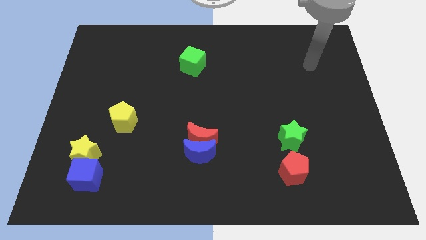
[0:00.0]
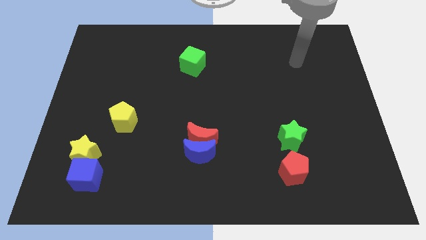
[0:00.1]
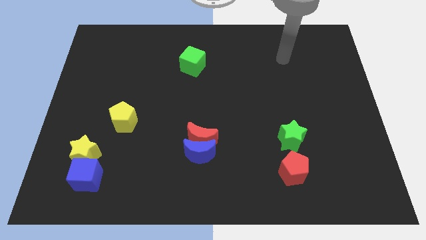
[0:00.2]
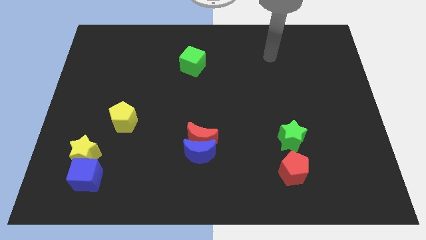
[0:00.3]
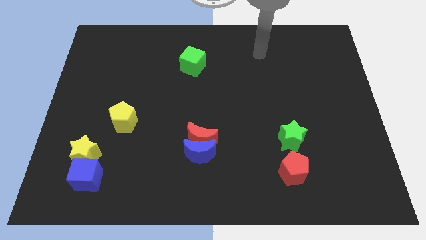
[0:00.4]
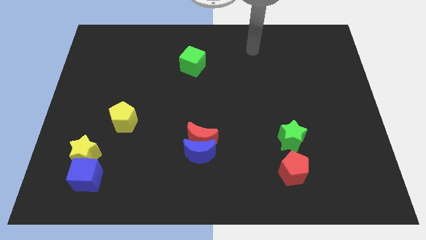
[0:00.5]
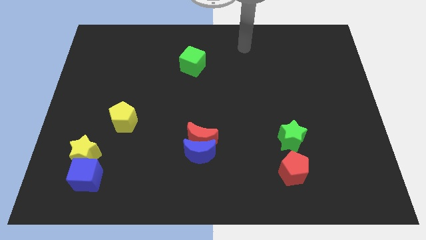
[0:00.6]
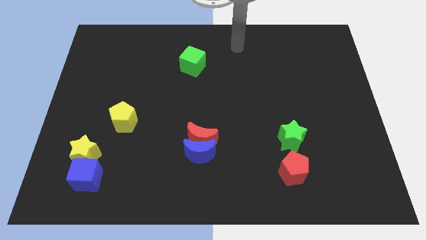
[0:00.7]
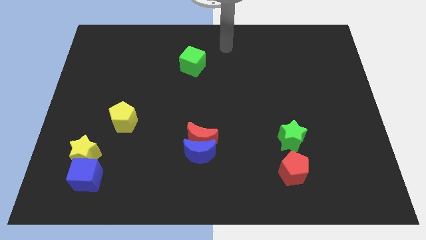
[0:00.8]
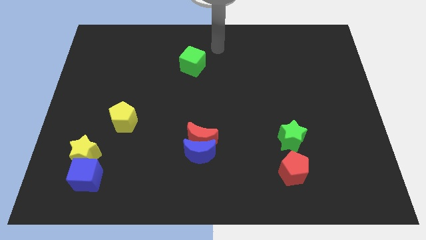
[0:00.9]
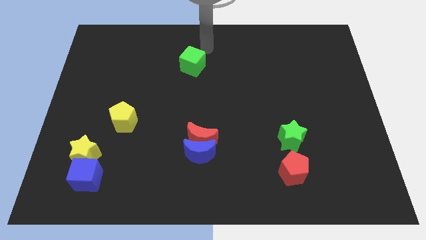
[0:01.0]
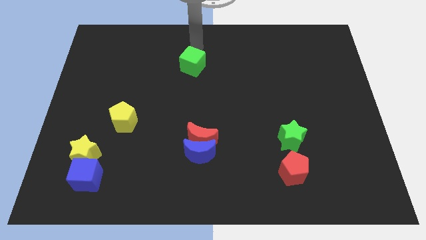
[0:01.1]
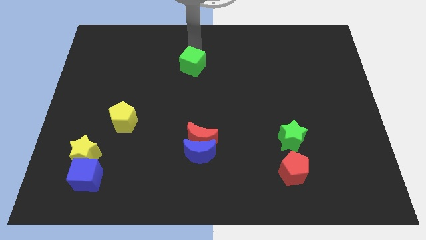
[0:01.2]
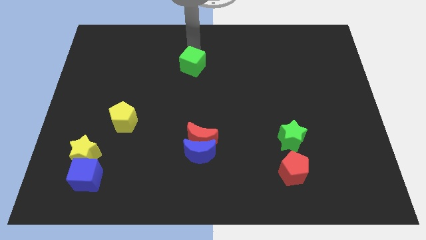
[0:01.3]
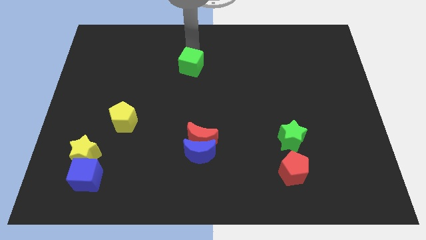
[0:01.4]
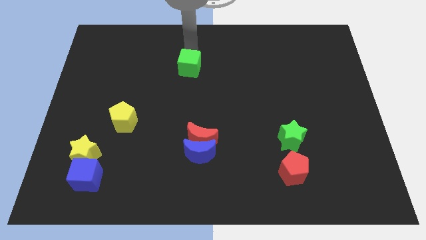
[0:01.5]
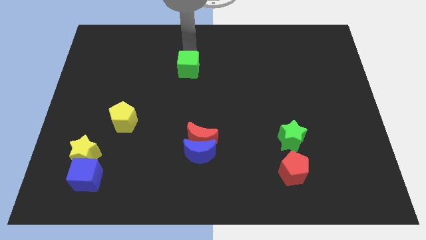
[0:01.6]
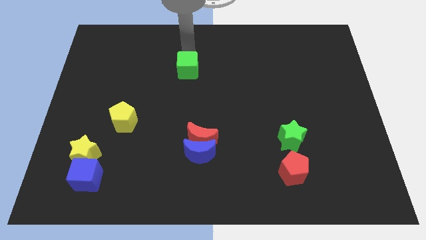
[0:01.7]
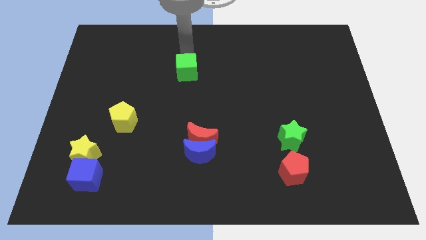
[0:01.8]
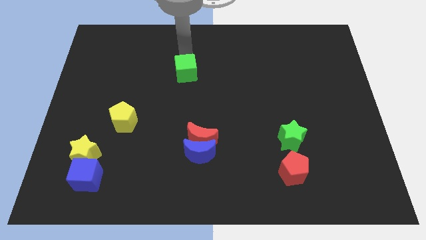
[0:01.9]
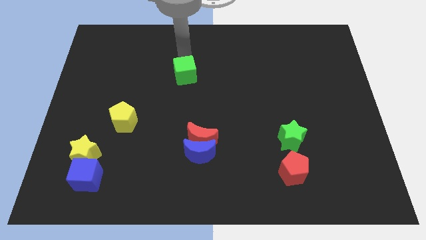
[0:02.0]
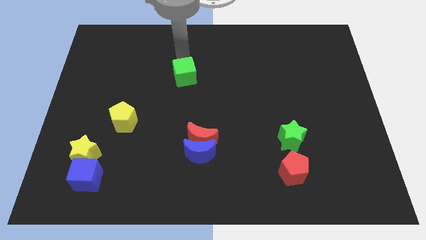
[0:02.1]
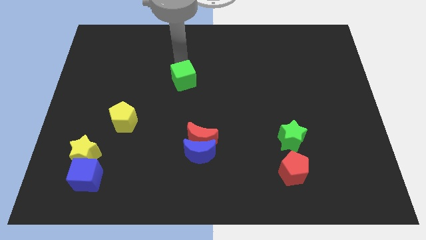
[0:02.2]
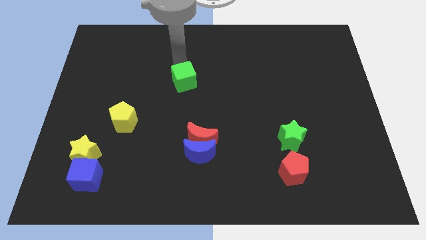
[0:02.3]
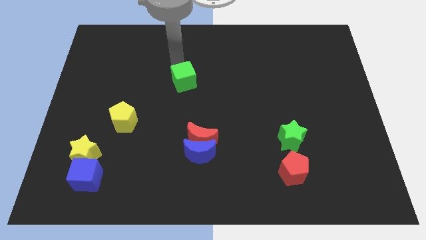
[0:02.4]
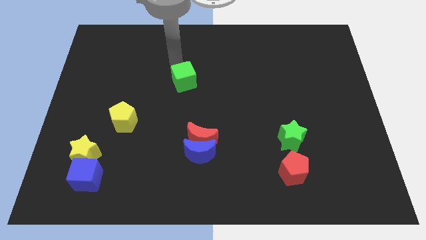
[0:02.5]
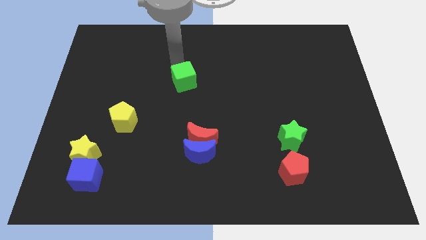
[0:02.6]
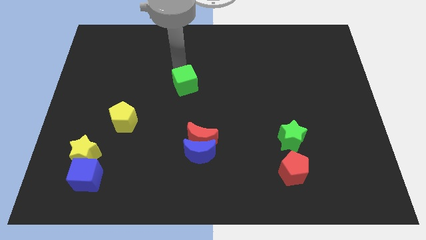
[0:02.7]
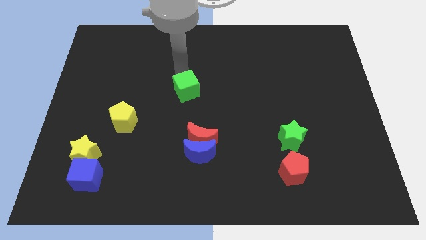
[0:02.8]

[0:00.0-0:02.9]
push the green cube downwards somewhat

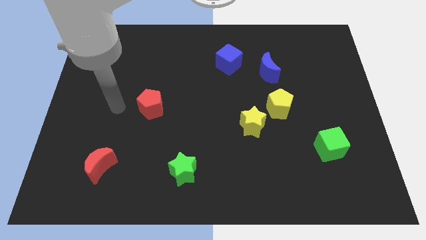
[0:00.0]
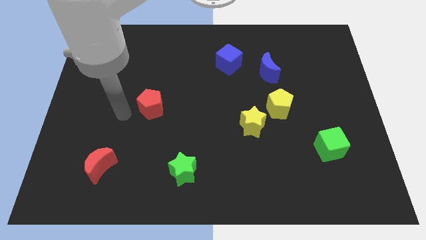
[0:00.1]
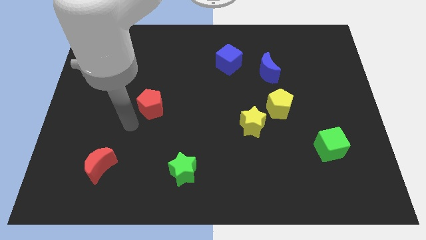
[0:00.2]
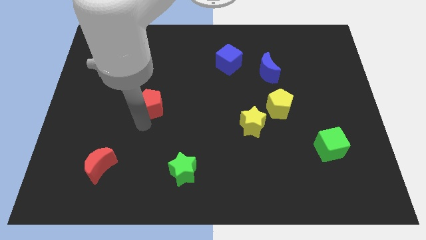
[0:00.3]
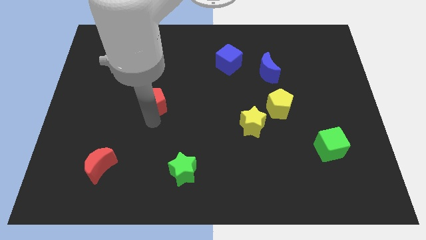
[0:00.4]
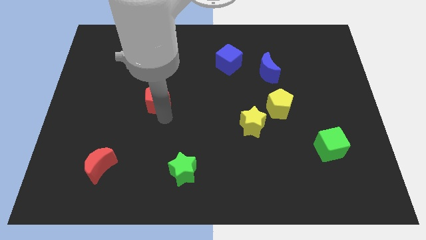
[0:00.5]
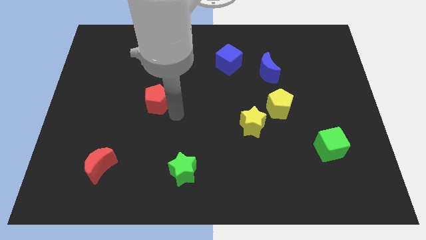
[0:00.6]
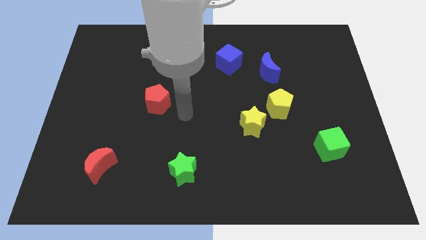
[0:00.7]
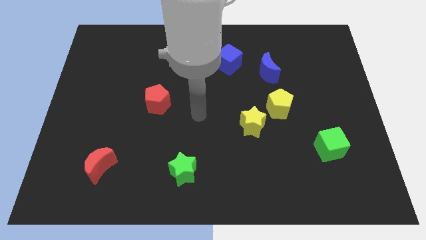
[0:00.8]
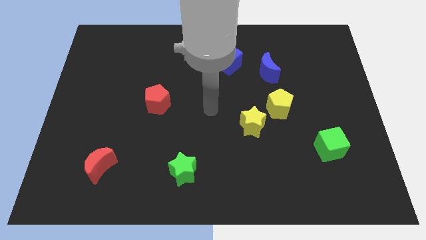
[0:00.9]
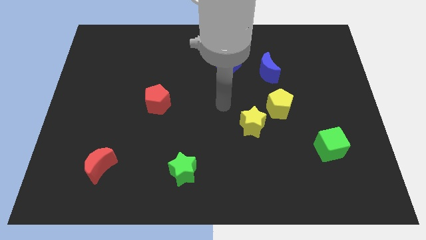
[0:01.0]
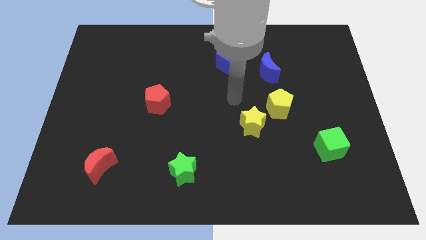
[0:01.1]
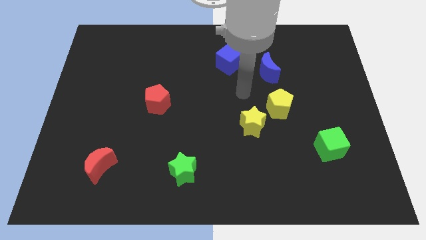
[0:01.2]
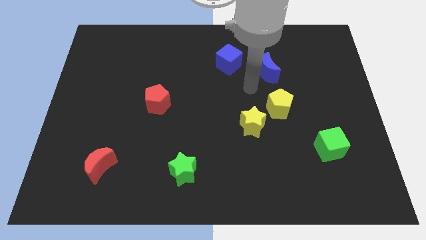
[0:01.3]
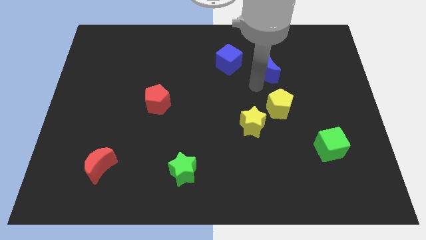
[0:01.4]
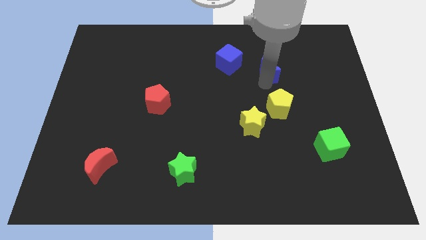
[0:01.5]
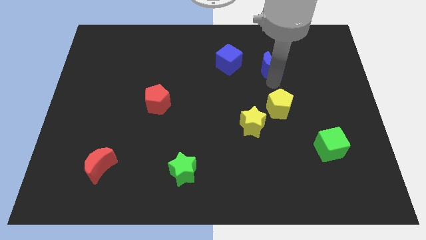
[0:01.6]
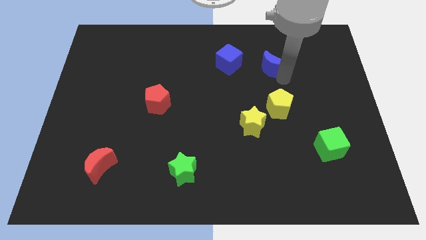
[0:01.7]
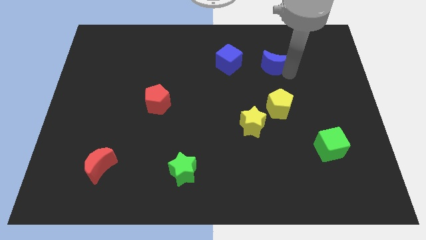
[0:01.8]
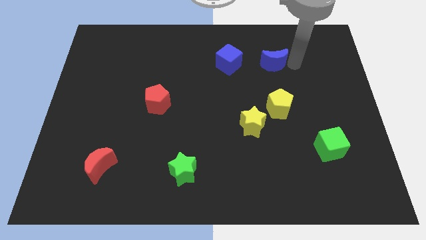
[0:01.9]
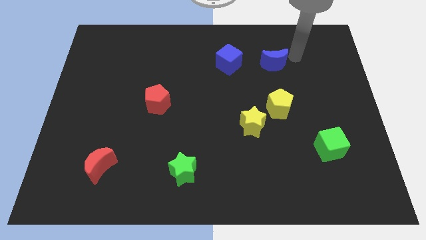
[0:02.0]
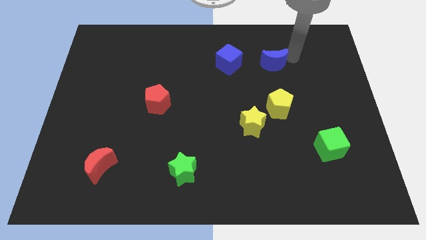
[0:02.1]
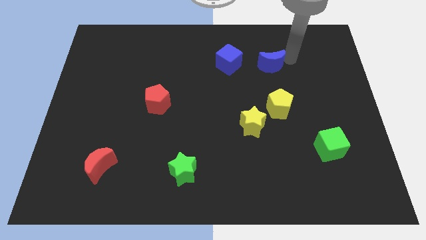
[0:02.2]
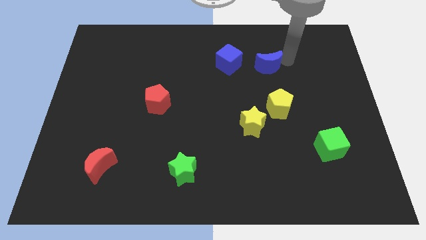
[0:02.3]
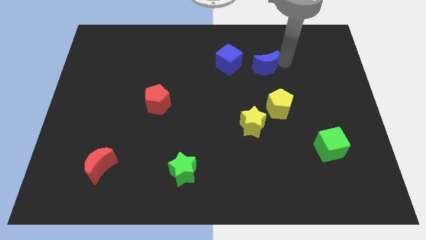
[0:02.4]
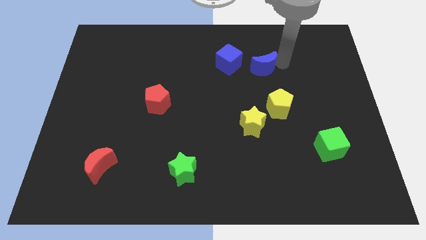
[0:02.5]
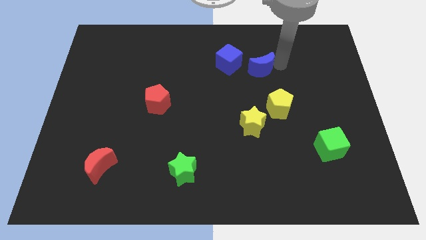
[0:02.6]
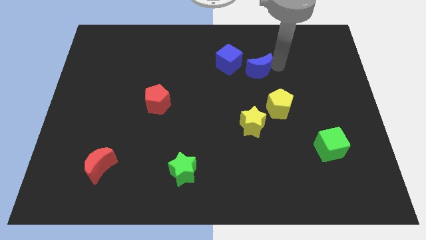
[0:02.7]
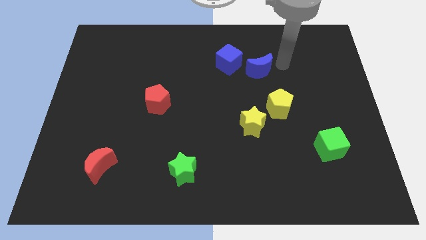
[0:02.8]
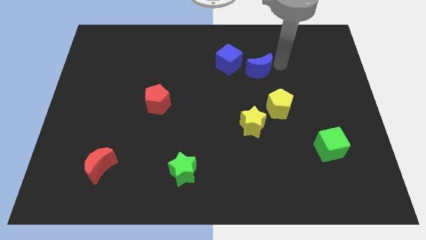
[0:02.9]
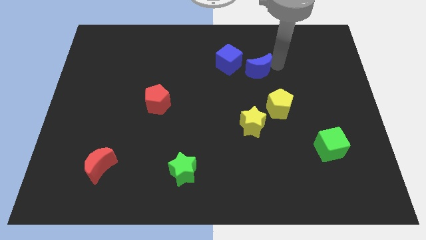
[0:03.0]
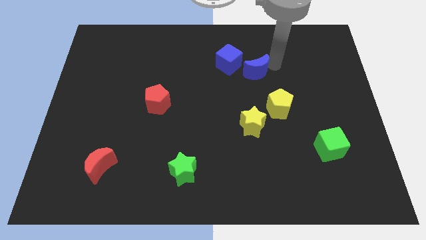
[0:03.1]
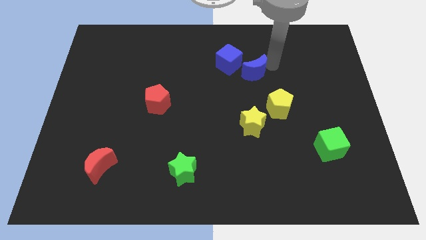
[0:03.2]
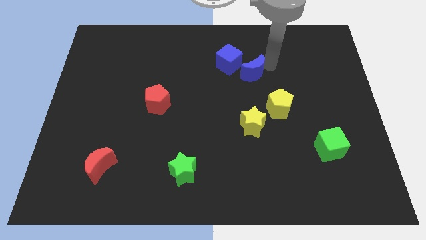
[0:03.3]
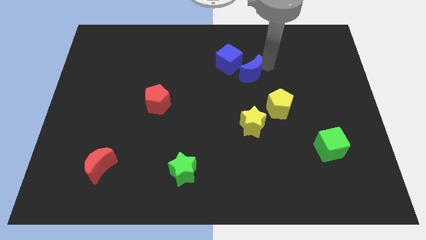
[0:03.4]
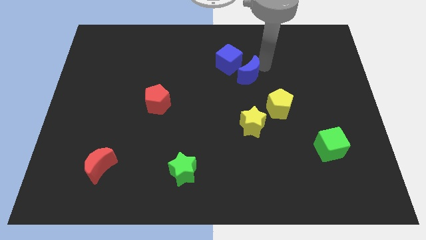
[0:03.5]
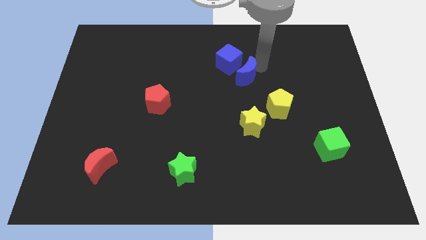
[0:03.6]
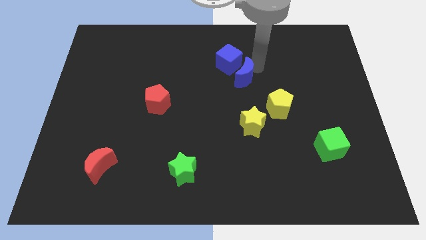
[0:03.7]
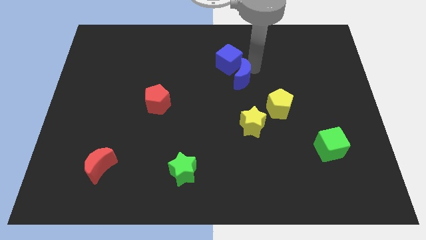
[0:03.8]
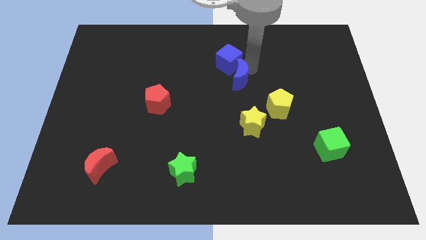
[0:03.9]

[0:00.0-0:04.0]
move the blue moon somewhat left

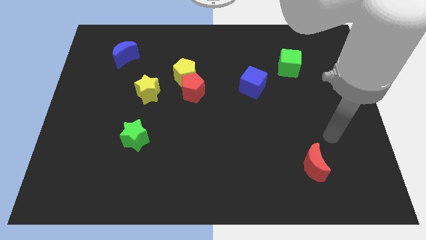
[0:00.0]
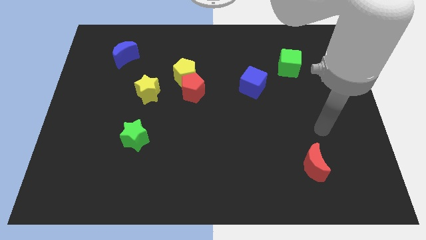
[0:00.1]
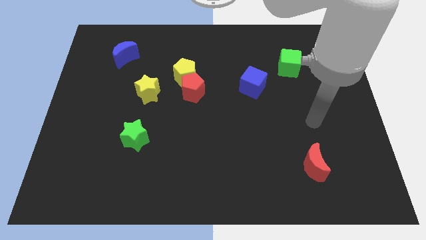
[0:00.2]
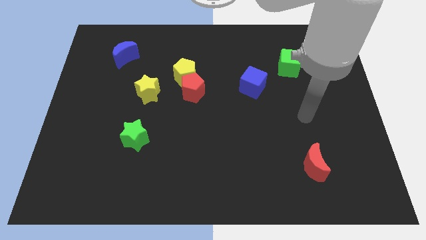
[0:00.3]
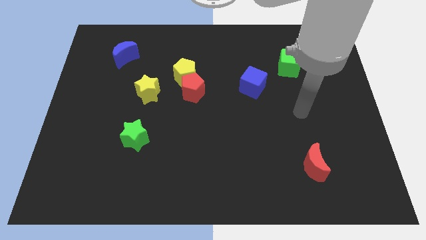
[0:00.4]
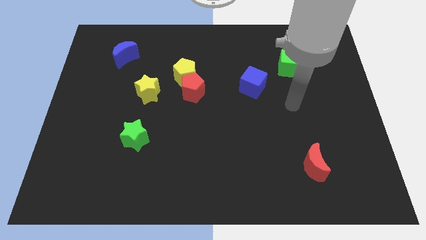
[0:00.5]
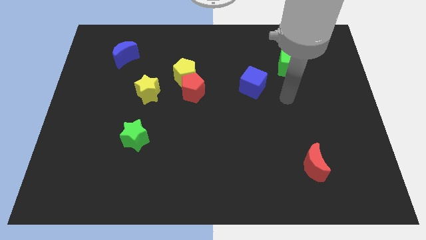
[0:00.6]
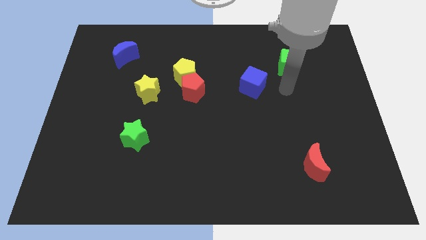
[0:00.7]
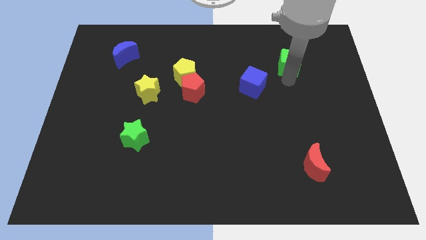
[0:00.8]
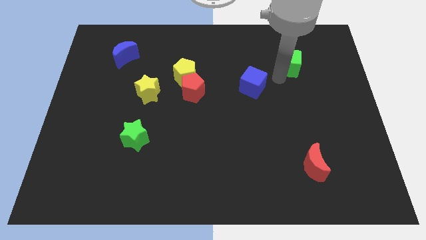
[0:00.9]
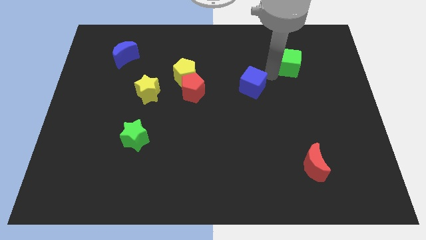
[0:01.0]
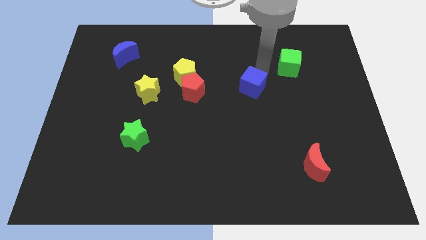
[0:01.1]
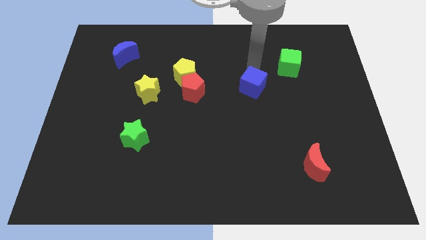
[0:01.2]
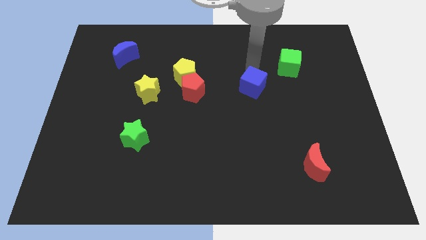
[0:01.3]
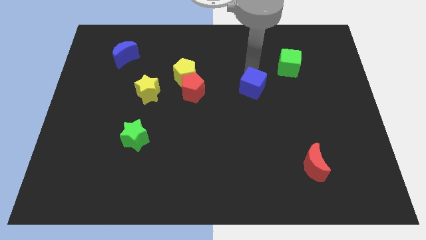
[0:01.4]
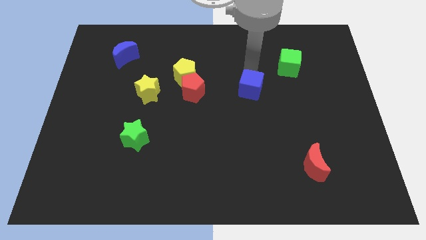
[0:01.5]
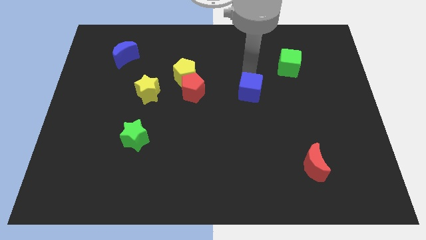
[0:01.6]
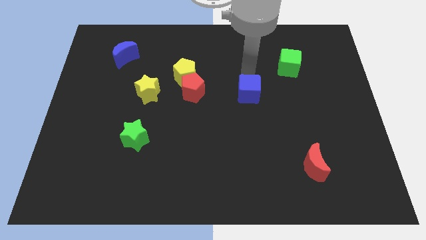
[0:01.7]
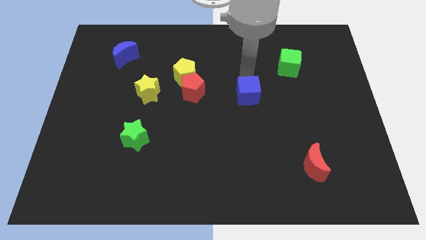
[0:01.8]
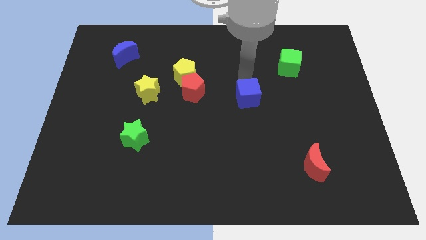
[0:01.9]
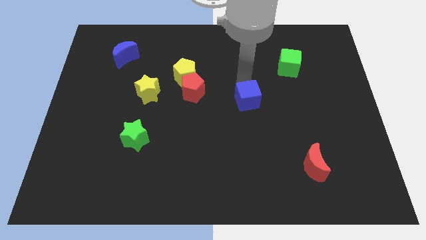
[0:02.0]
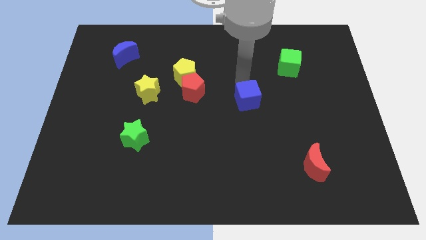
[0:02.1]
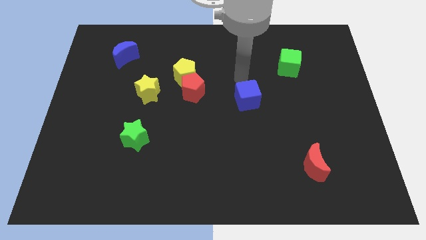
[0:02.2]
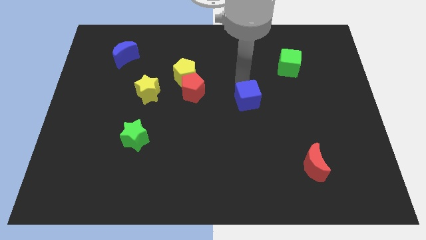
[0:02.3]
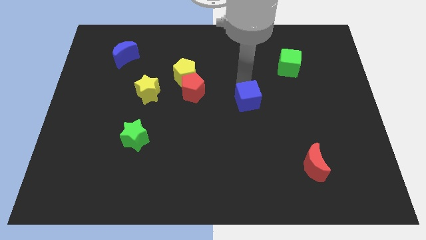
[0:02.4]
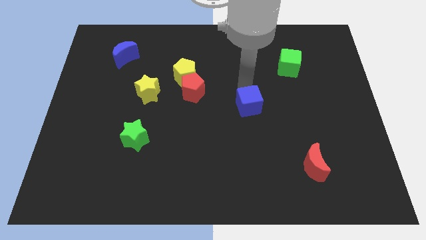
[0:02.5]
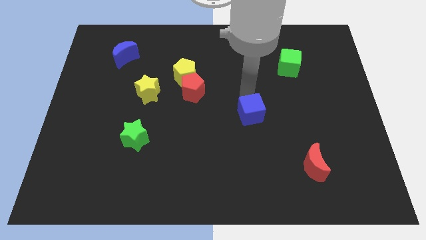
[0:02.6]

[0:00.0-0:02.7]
move the blue cube a little down
